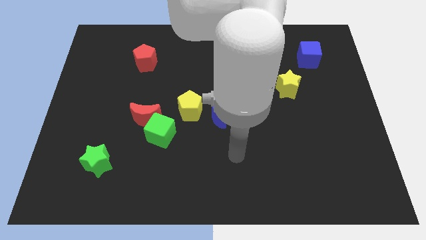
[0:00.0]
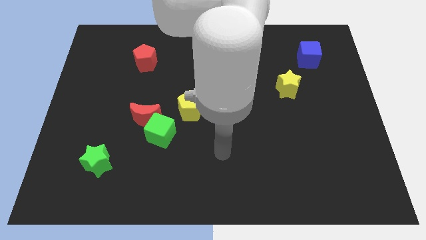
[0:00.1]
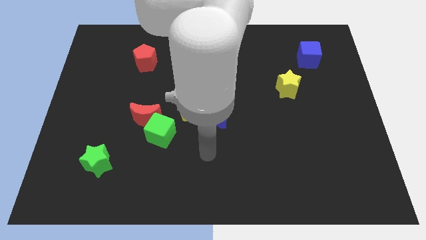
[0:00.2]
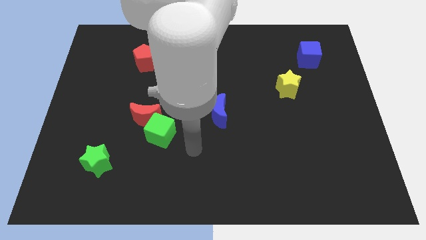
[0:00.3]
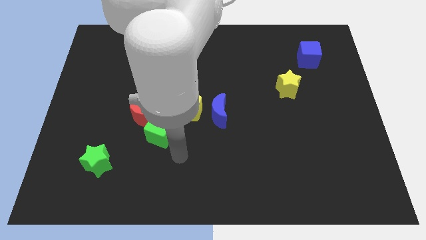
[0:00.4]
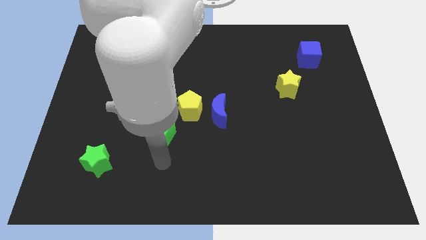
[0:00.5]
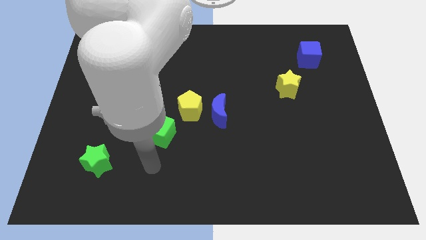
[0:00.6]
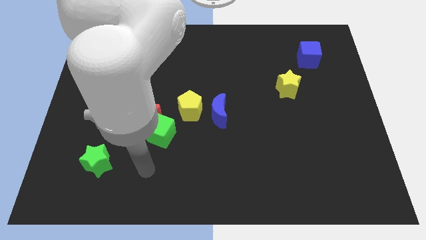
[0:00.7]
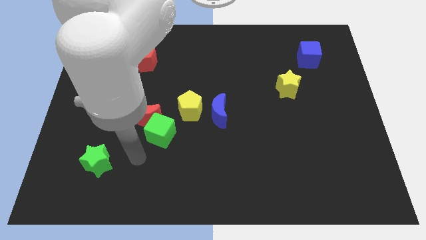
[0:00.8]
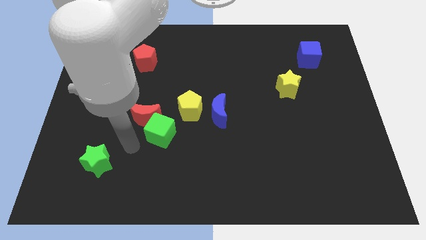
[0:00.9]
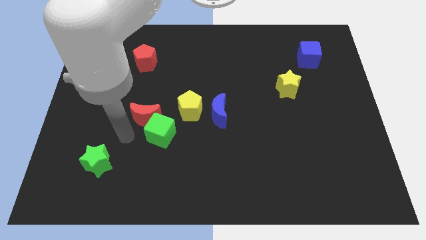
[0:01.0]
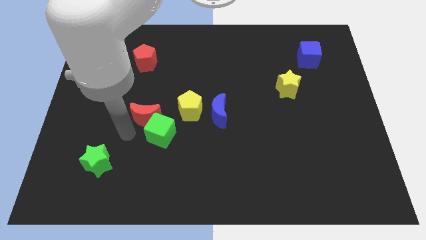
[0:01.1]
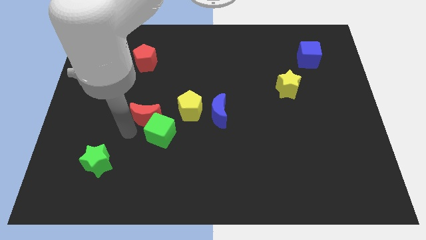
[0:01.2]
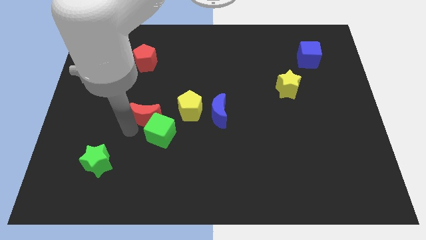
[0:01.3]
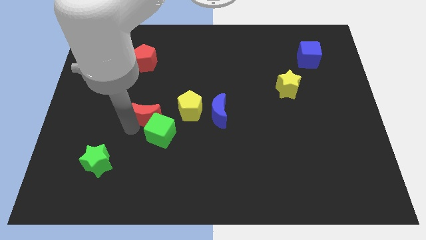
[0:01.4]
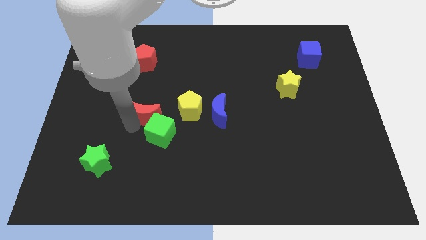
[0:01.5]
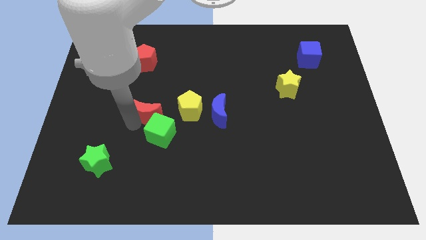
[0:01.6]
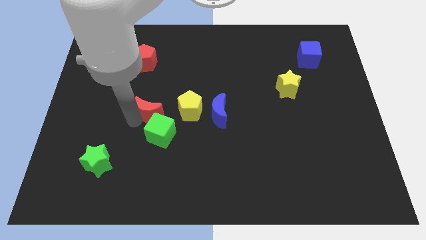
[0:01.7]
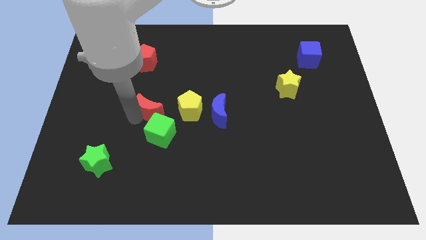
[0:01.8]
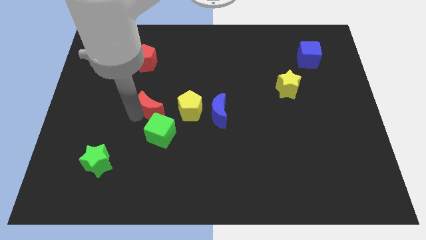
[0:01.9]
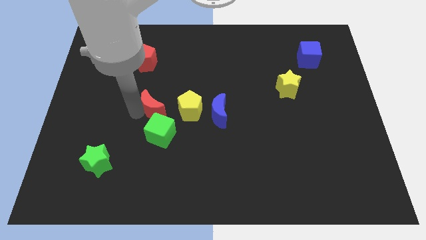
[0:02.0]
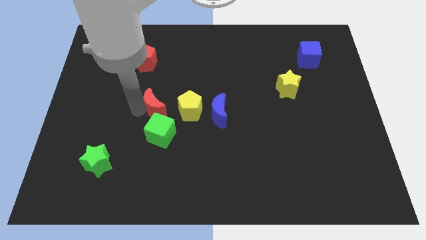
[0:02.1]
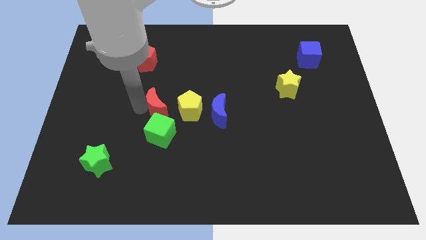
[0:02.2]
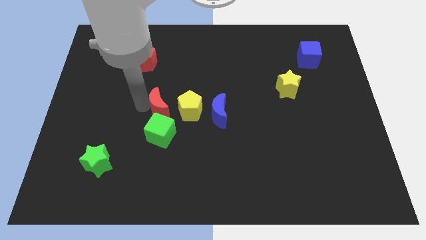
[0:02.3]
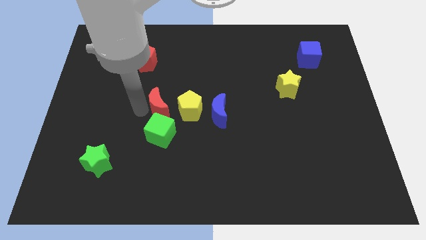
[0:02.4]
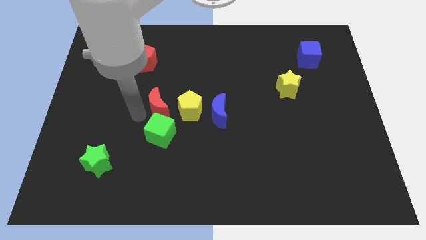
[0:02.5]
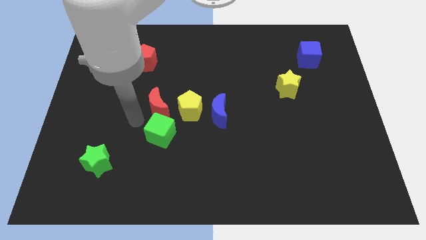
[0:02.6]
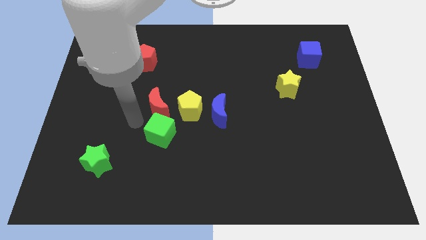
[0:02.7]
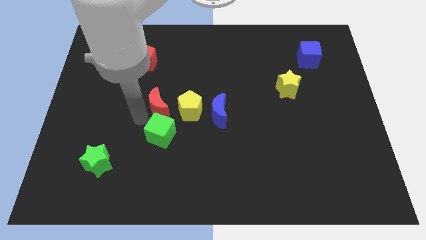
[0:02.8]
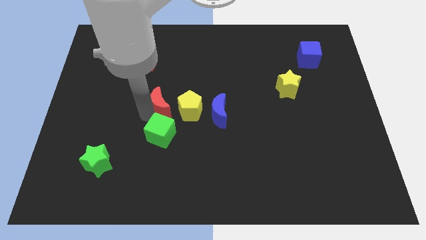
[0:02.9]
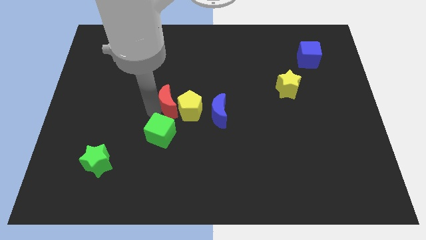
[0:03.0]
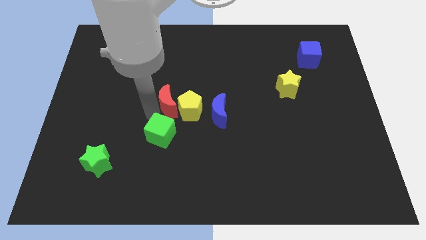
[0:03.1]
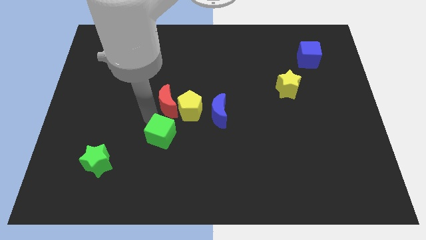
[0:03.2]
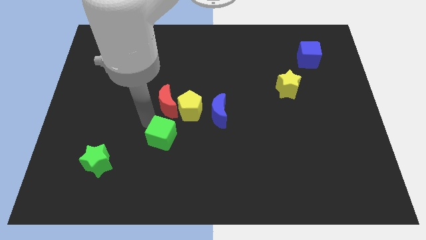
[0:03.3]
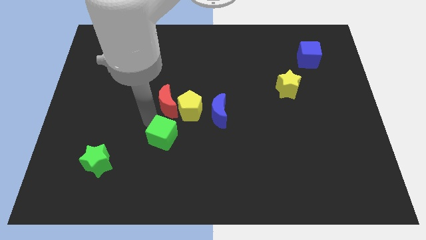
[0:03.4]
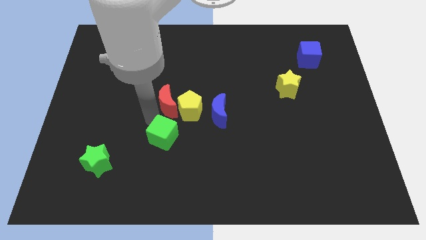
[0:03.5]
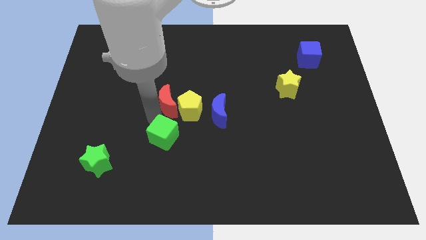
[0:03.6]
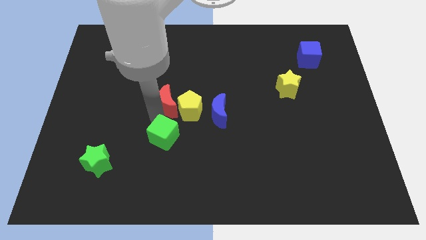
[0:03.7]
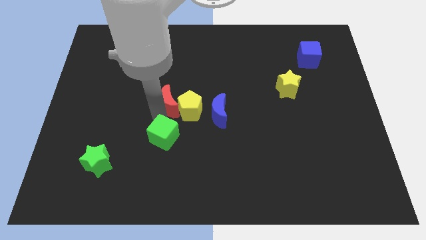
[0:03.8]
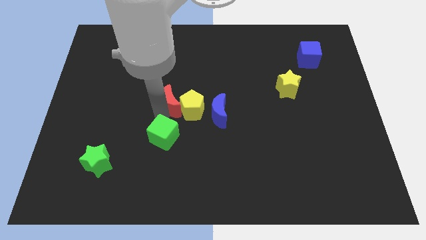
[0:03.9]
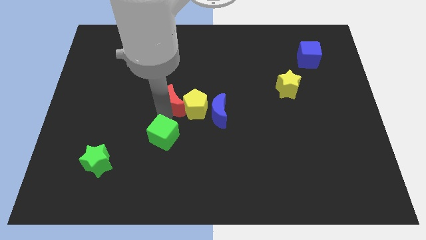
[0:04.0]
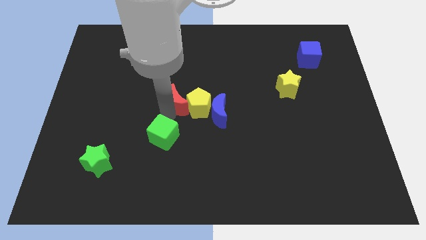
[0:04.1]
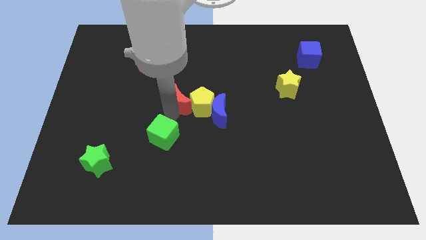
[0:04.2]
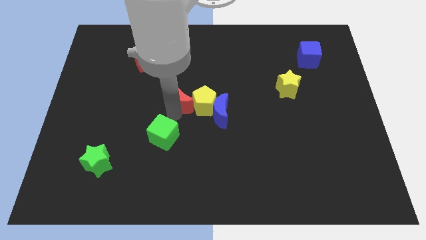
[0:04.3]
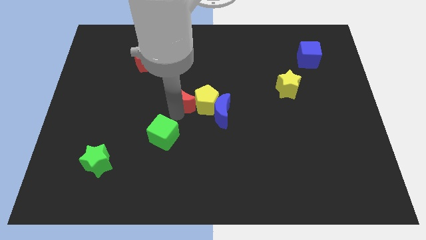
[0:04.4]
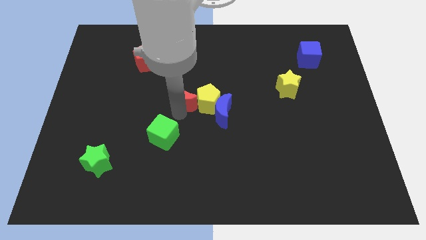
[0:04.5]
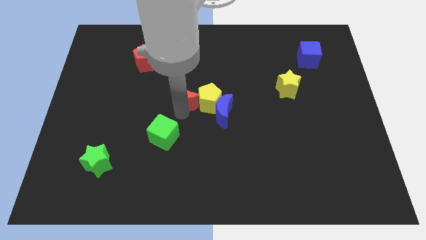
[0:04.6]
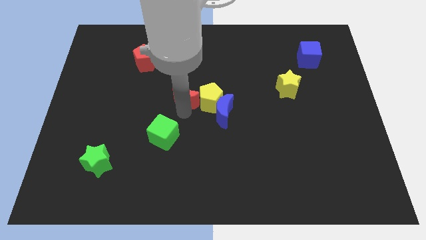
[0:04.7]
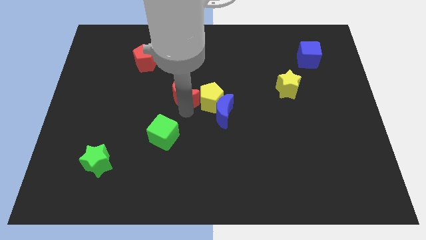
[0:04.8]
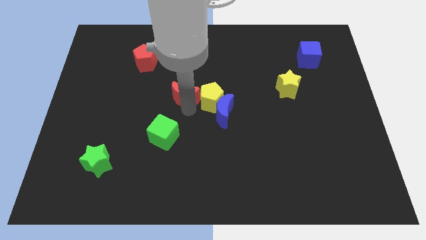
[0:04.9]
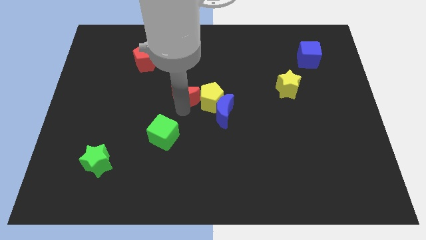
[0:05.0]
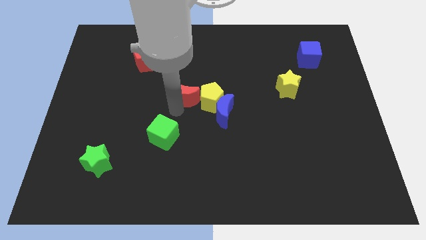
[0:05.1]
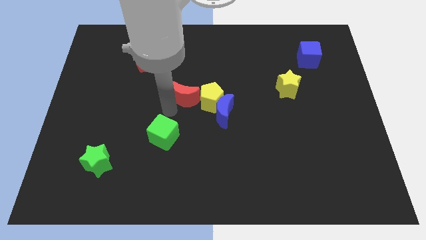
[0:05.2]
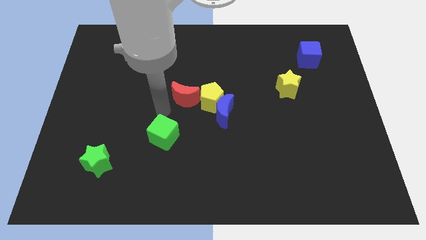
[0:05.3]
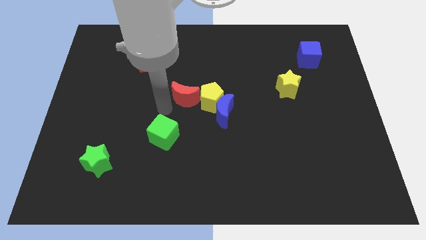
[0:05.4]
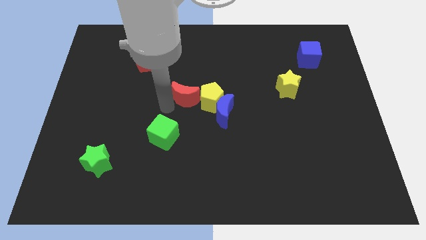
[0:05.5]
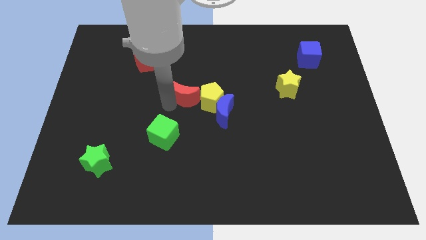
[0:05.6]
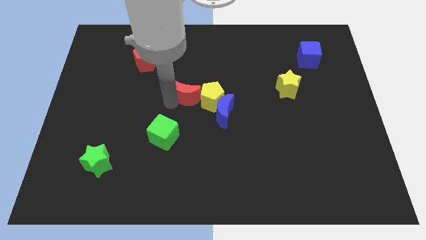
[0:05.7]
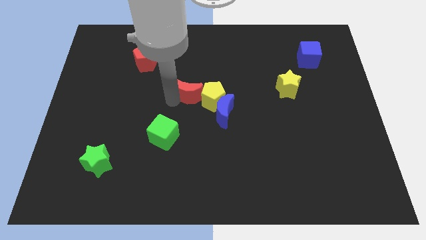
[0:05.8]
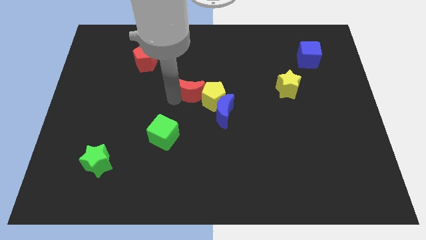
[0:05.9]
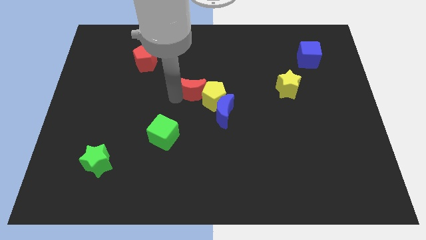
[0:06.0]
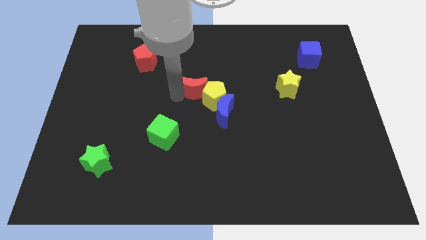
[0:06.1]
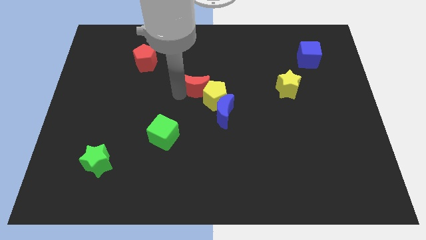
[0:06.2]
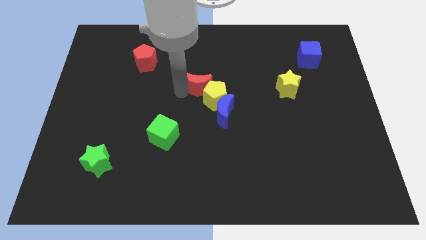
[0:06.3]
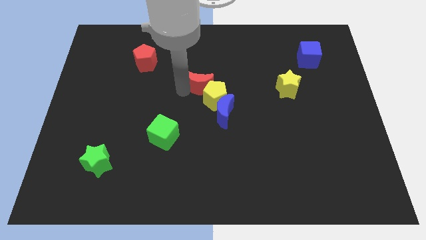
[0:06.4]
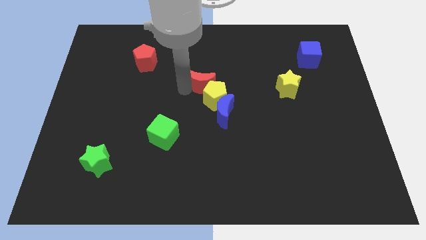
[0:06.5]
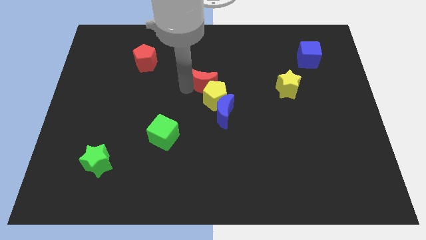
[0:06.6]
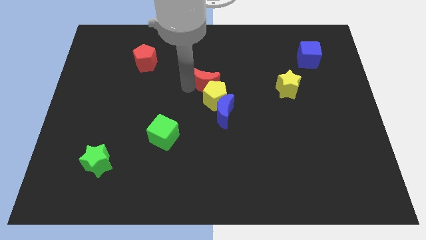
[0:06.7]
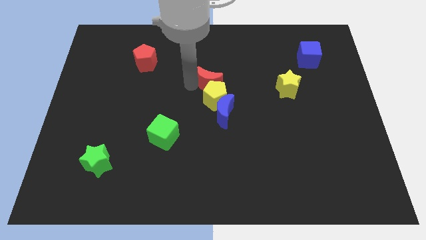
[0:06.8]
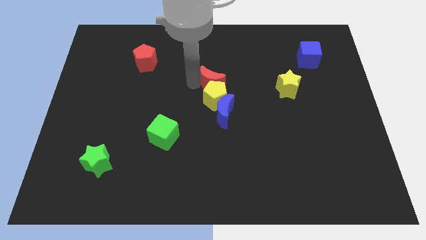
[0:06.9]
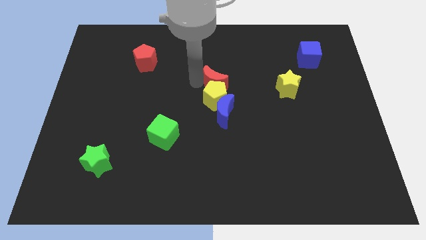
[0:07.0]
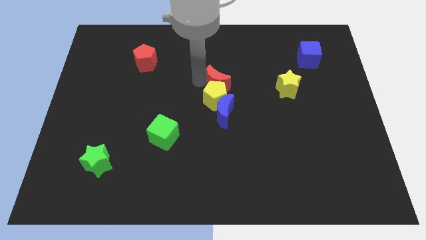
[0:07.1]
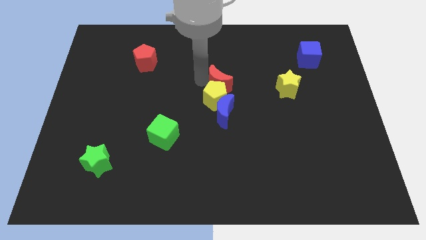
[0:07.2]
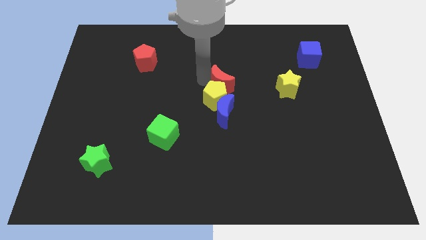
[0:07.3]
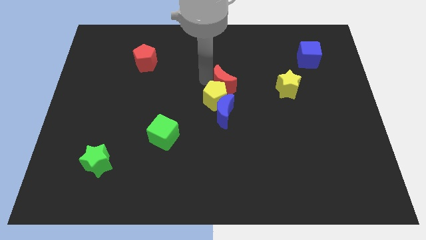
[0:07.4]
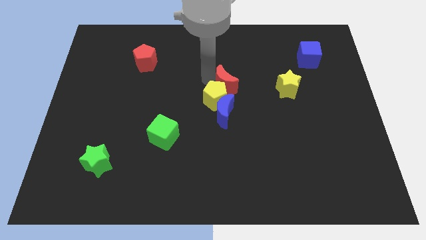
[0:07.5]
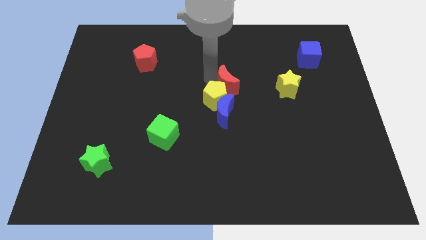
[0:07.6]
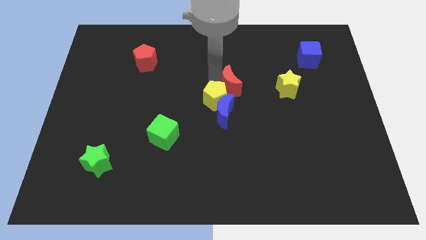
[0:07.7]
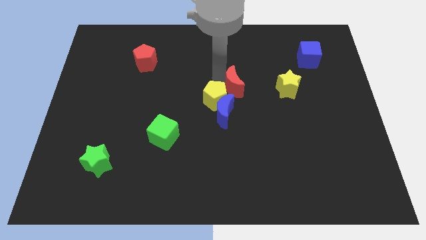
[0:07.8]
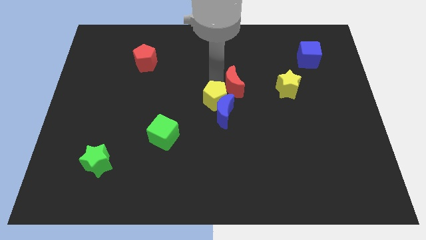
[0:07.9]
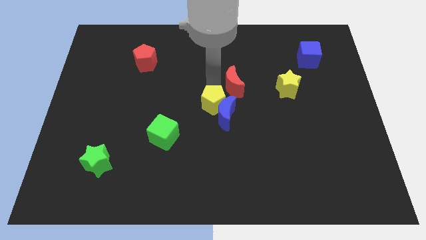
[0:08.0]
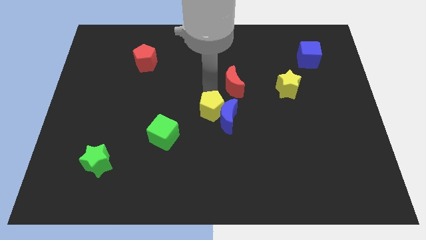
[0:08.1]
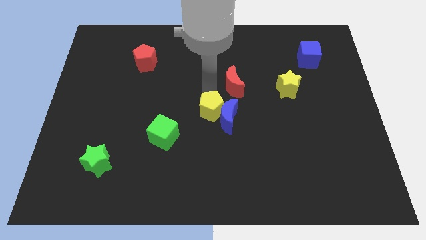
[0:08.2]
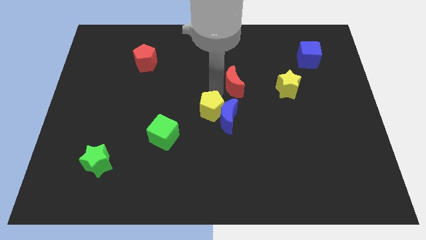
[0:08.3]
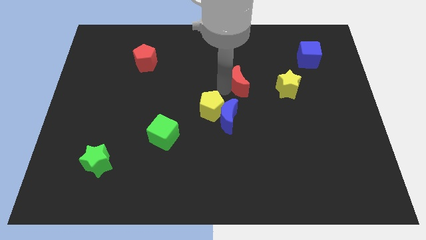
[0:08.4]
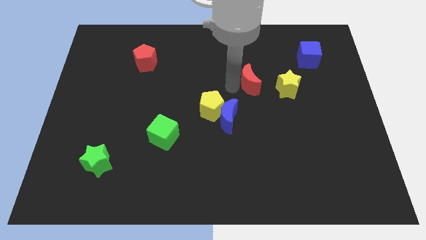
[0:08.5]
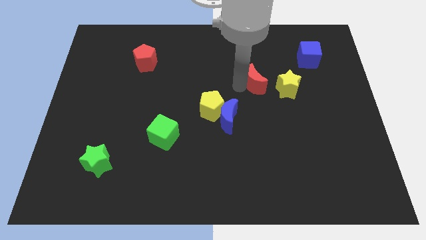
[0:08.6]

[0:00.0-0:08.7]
move the red moon to the top left side of the yellow star
